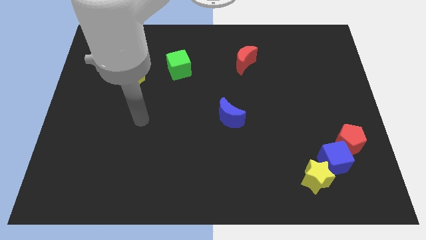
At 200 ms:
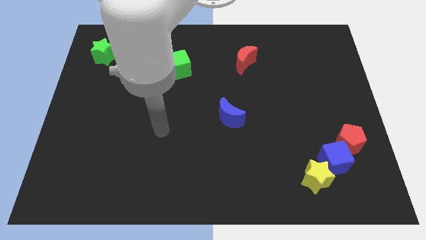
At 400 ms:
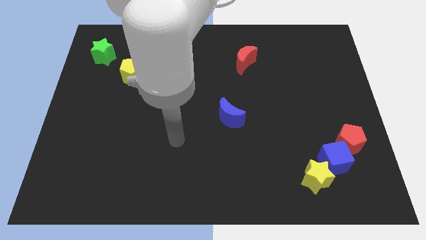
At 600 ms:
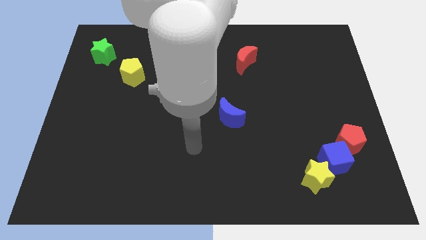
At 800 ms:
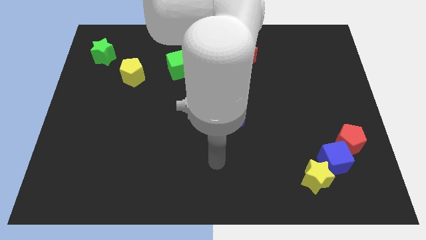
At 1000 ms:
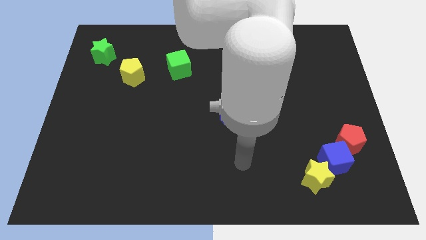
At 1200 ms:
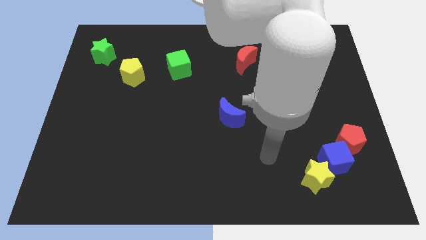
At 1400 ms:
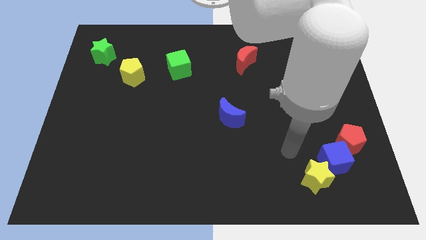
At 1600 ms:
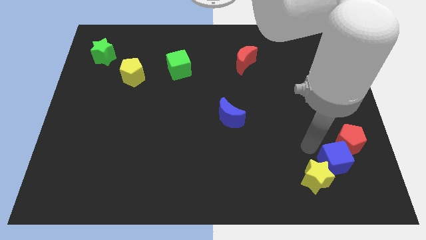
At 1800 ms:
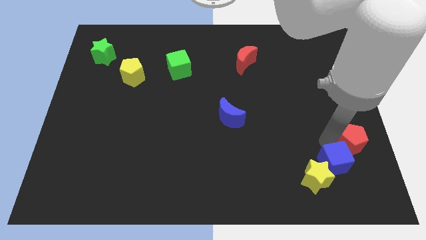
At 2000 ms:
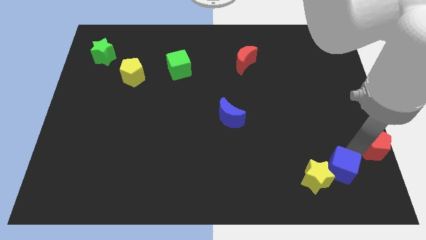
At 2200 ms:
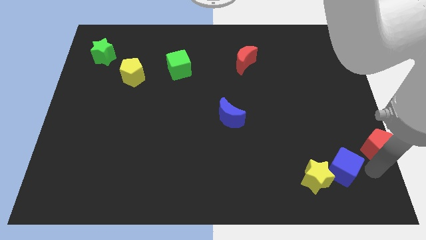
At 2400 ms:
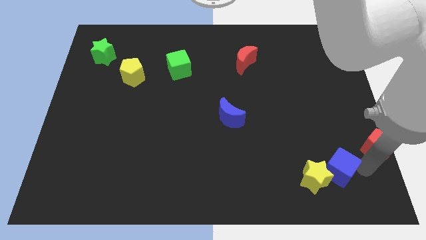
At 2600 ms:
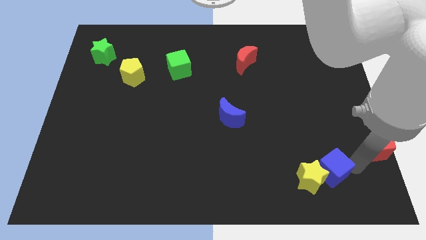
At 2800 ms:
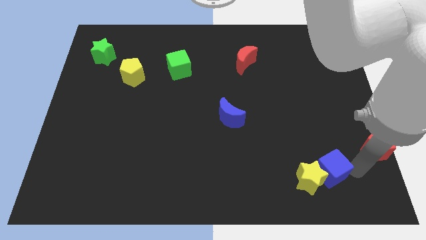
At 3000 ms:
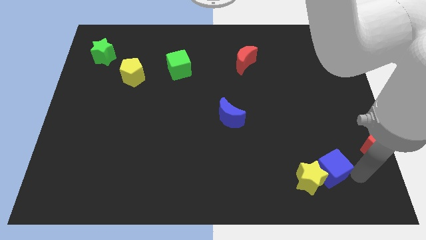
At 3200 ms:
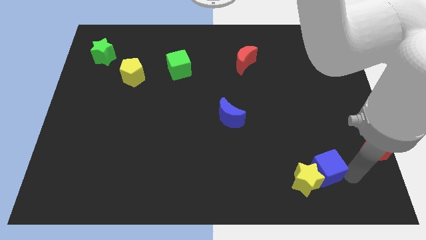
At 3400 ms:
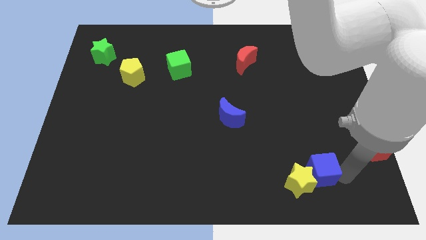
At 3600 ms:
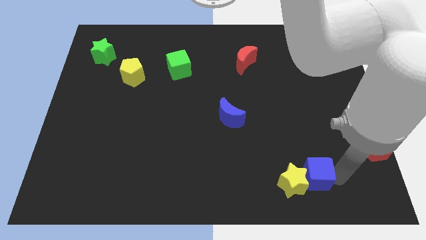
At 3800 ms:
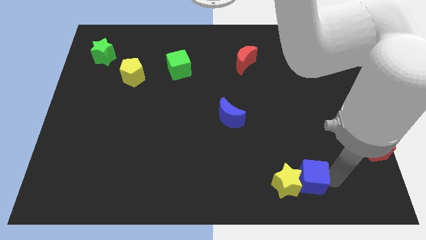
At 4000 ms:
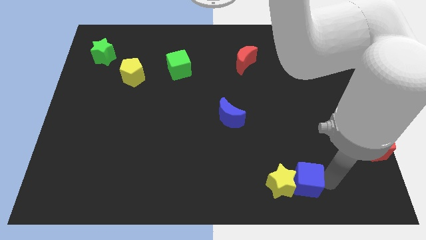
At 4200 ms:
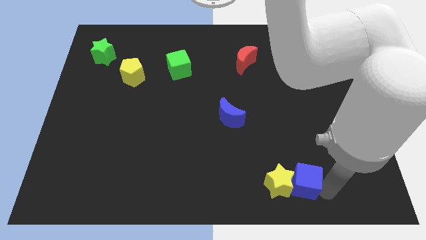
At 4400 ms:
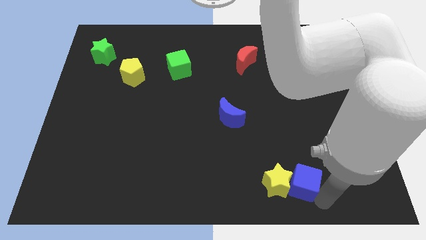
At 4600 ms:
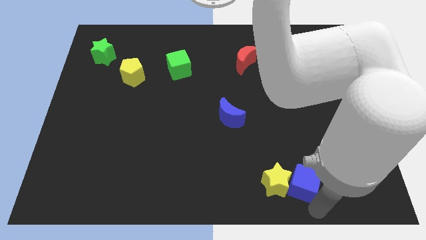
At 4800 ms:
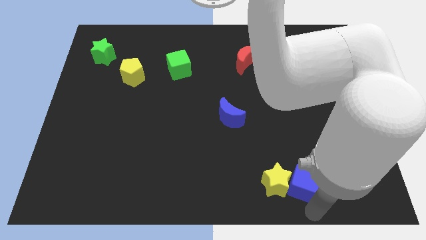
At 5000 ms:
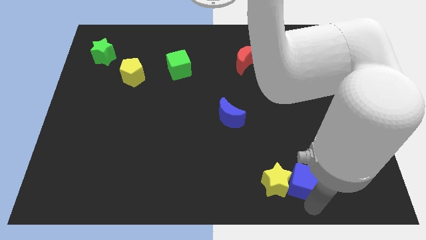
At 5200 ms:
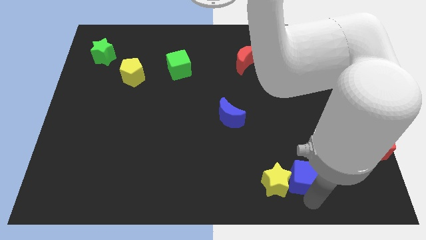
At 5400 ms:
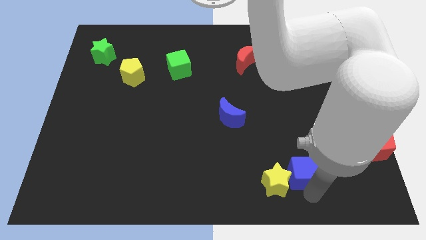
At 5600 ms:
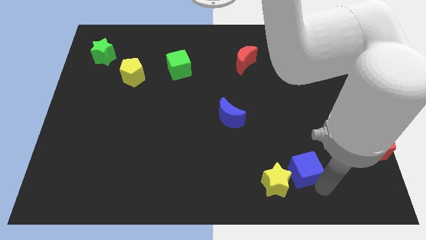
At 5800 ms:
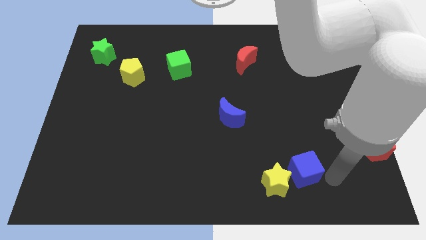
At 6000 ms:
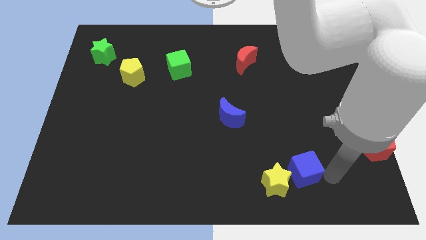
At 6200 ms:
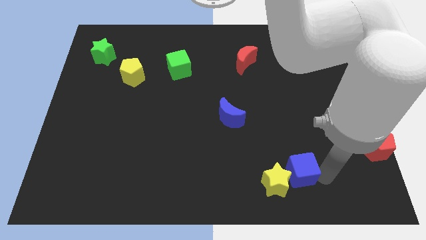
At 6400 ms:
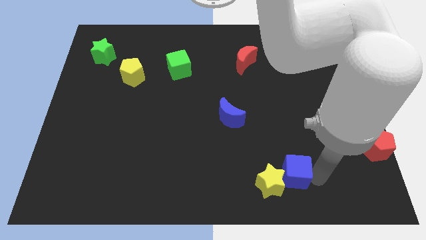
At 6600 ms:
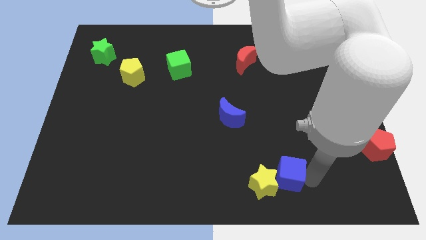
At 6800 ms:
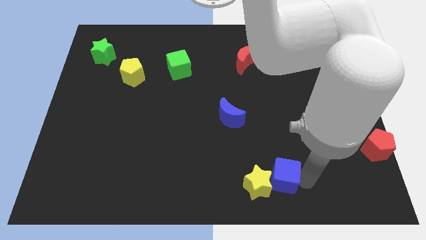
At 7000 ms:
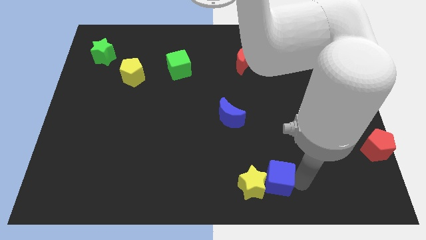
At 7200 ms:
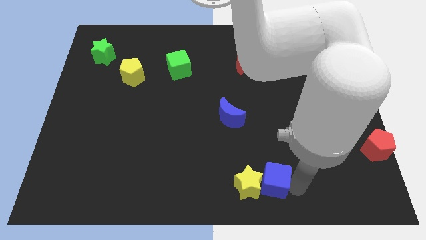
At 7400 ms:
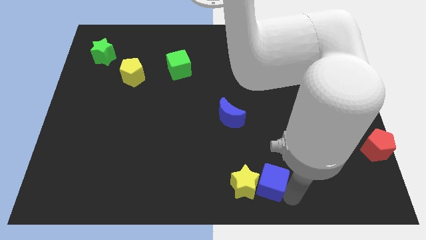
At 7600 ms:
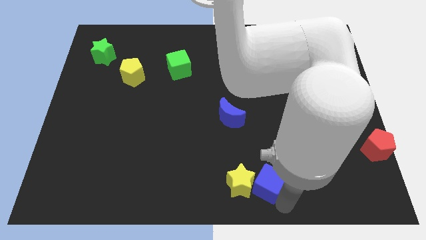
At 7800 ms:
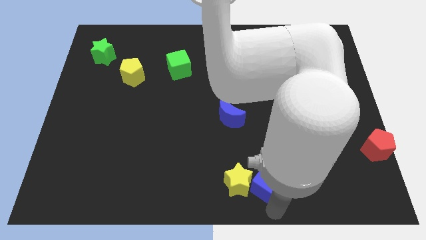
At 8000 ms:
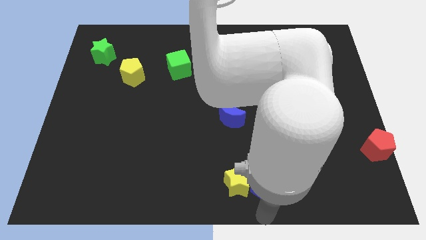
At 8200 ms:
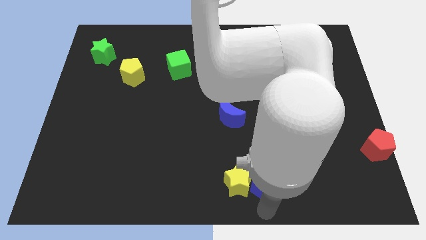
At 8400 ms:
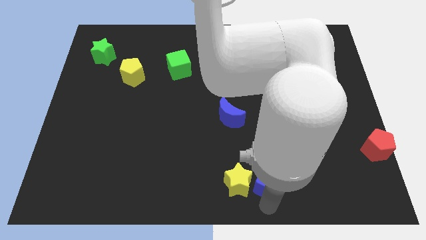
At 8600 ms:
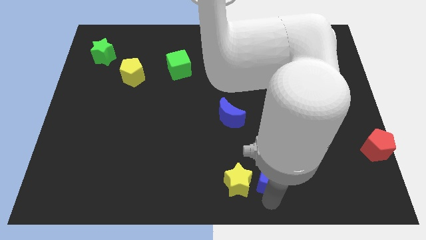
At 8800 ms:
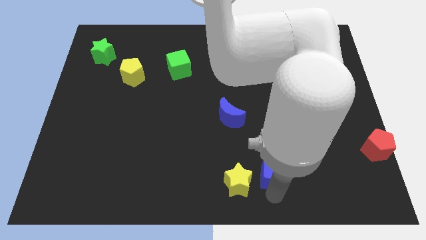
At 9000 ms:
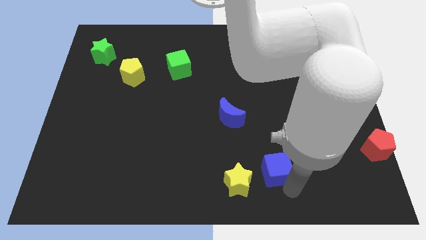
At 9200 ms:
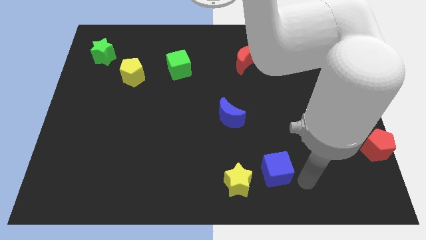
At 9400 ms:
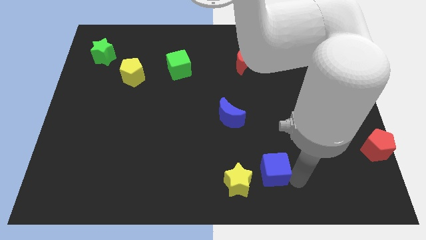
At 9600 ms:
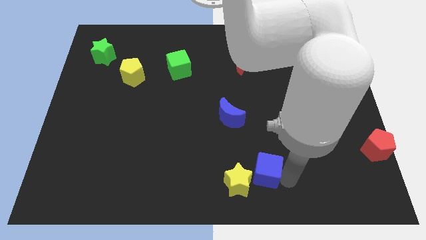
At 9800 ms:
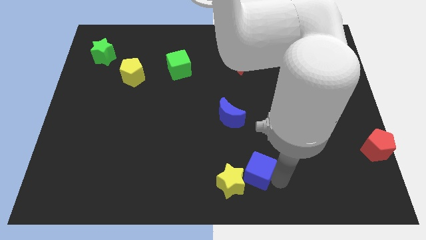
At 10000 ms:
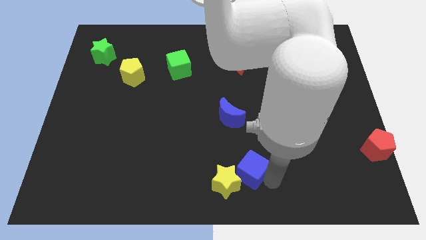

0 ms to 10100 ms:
slide the blue cube below the blue moon

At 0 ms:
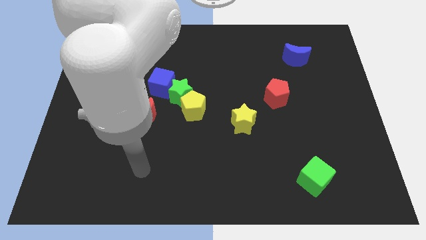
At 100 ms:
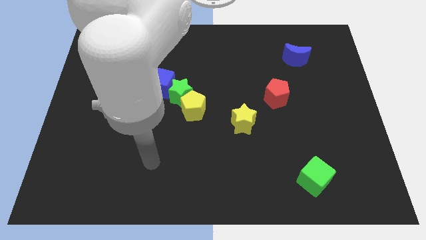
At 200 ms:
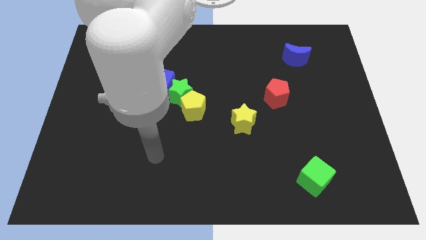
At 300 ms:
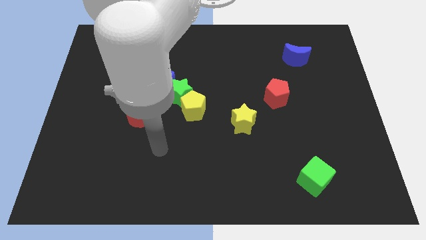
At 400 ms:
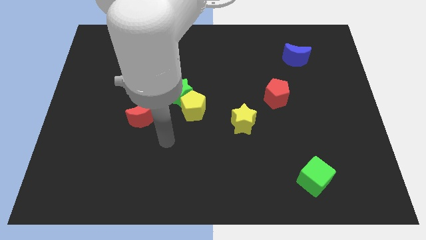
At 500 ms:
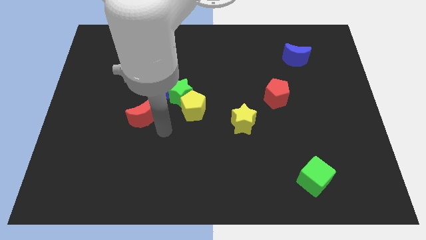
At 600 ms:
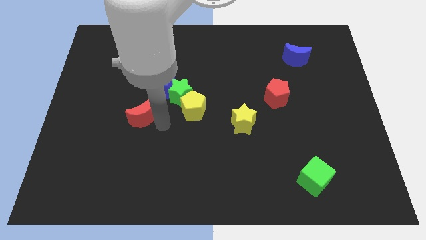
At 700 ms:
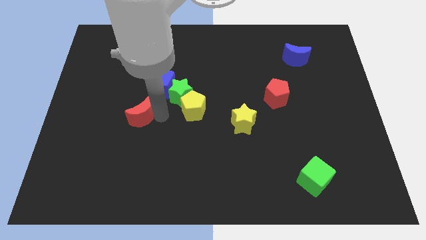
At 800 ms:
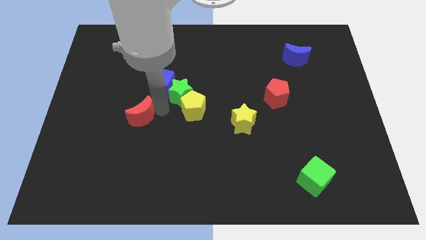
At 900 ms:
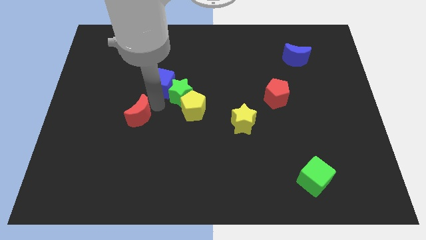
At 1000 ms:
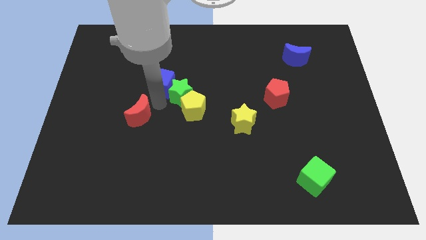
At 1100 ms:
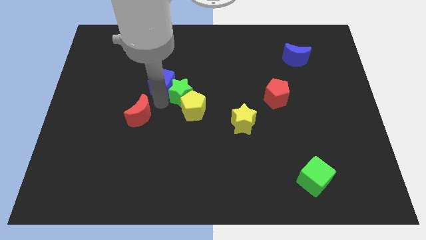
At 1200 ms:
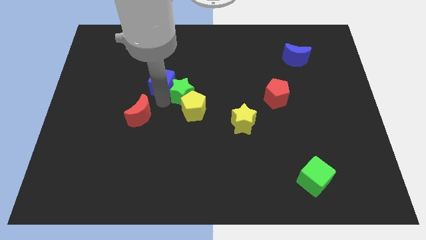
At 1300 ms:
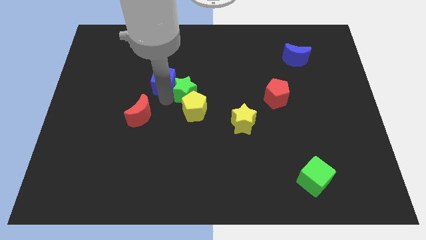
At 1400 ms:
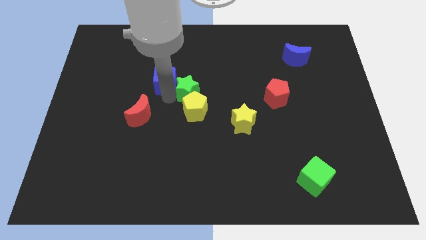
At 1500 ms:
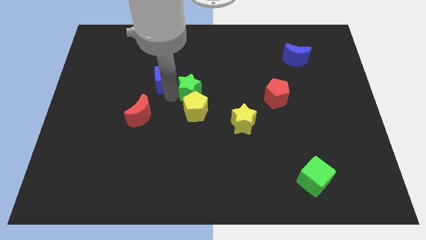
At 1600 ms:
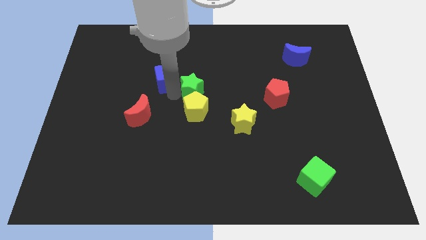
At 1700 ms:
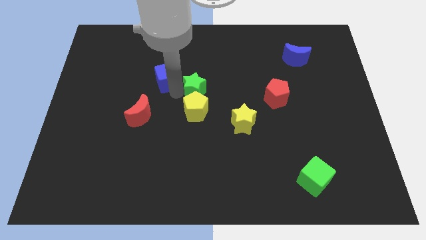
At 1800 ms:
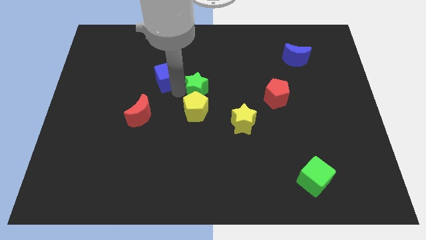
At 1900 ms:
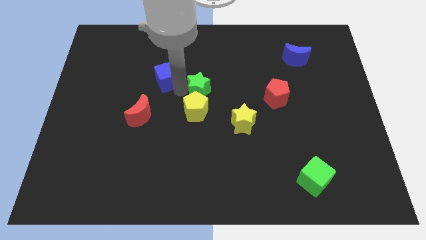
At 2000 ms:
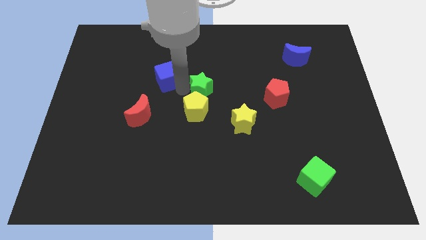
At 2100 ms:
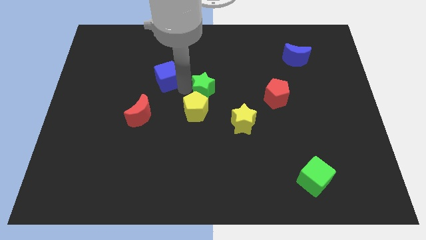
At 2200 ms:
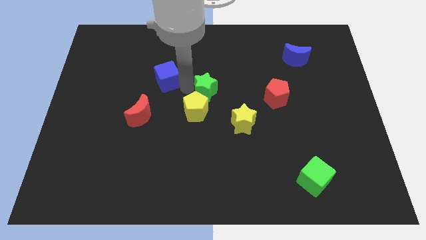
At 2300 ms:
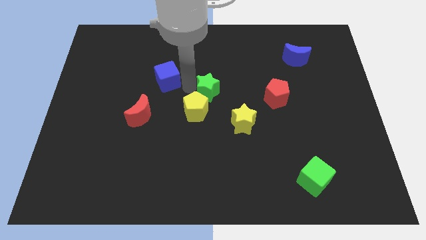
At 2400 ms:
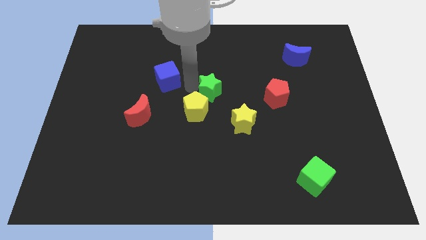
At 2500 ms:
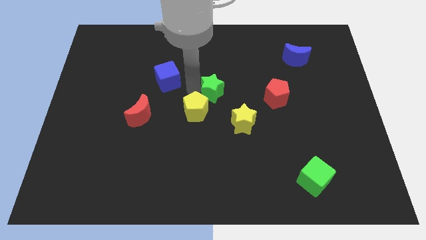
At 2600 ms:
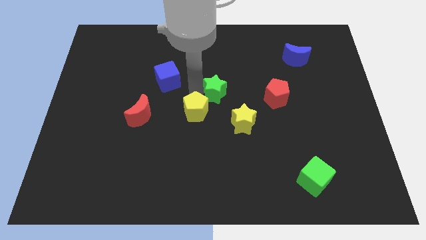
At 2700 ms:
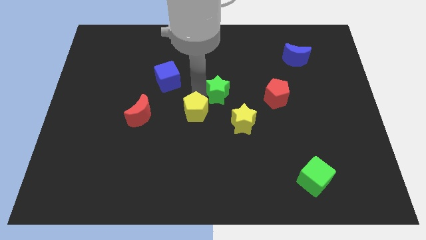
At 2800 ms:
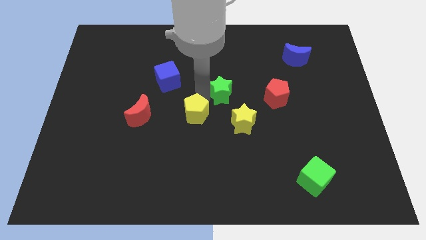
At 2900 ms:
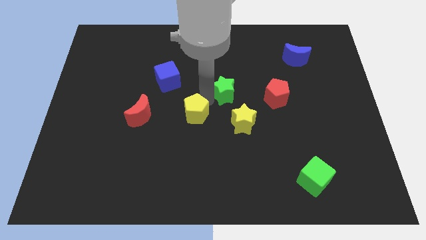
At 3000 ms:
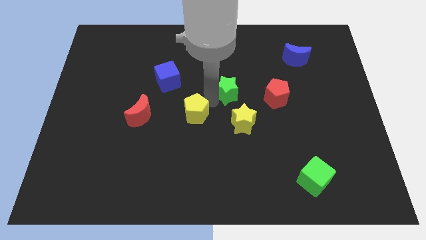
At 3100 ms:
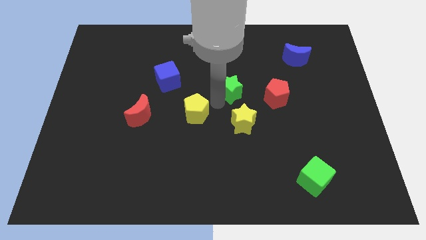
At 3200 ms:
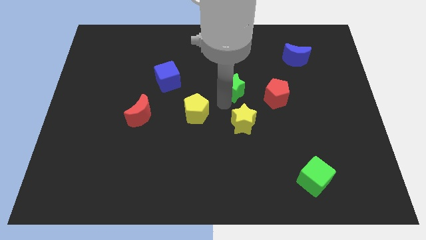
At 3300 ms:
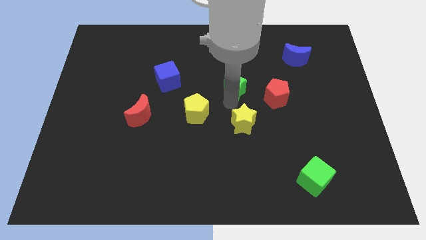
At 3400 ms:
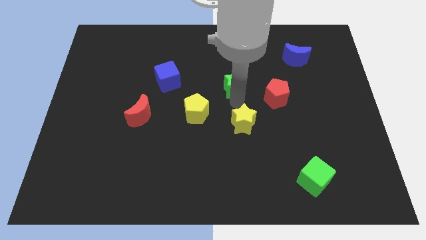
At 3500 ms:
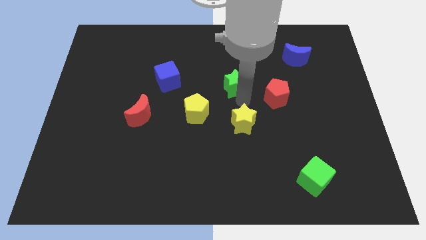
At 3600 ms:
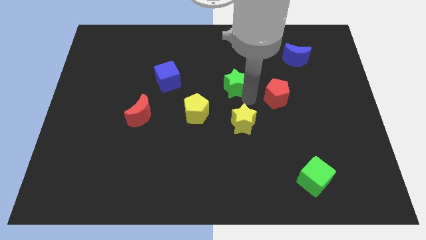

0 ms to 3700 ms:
slide the green star diagonally up and to the left of the red pentagon
